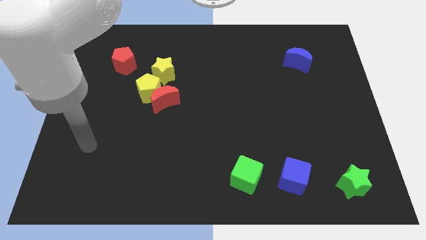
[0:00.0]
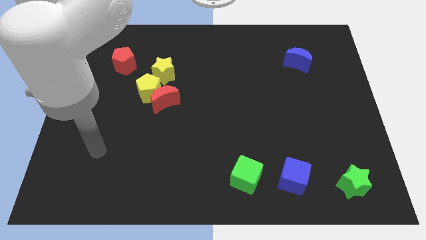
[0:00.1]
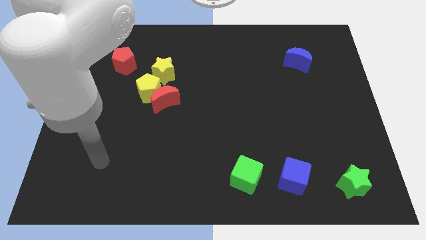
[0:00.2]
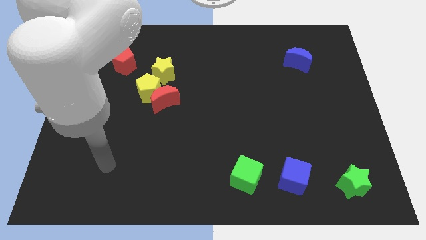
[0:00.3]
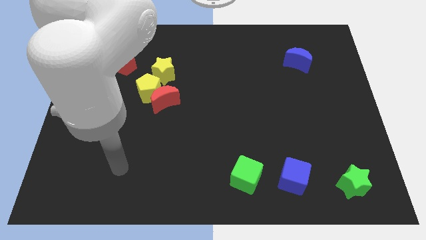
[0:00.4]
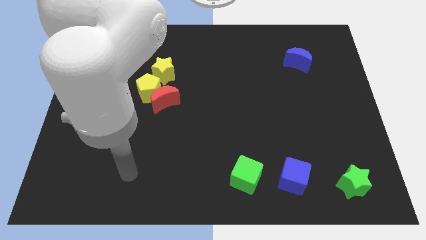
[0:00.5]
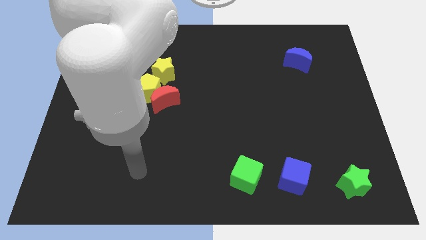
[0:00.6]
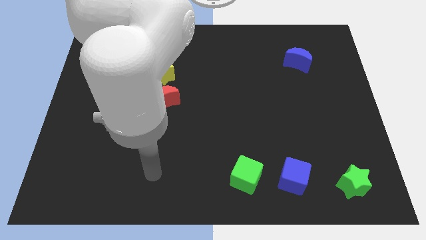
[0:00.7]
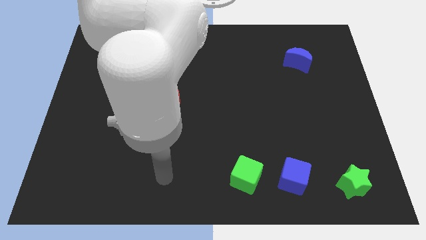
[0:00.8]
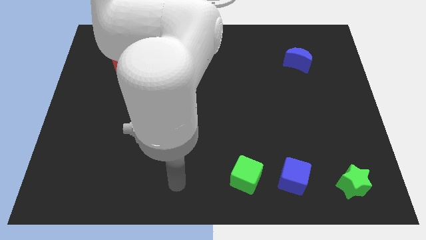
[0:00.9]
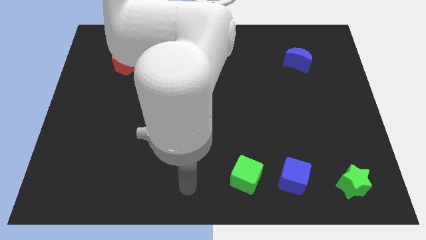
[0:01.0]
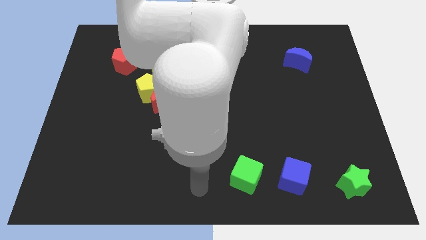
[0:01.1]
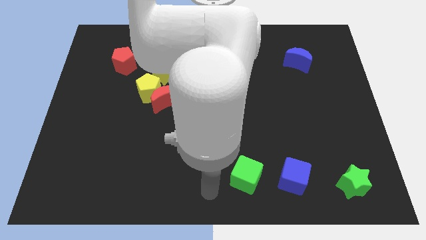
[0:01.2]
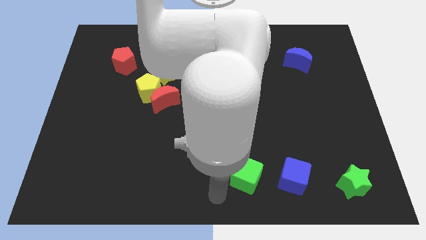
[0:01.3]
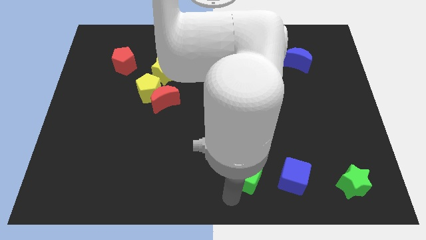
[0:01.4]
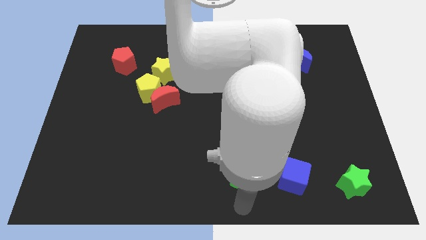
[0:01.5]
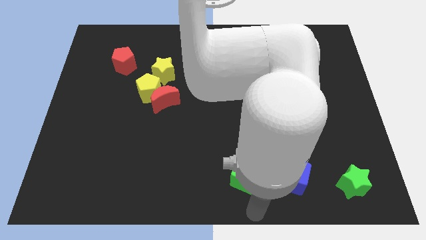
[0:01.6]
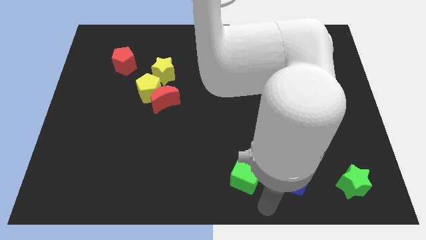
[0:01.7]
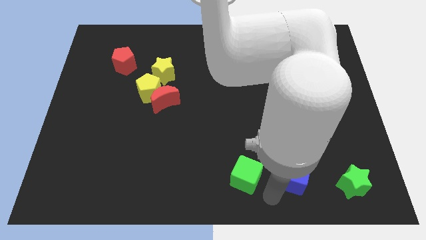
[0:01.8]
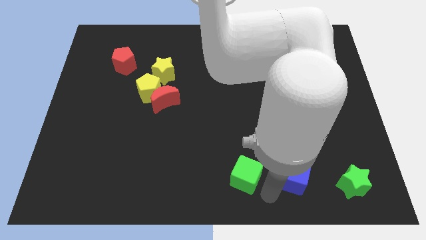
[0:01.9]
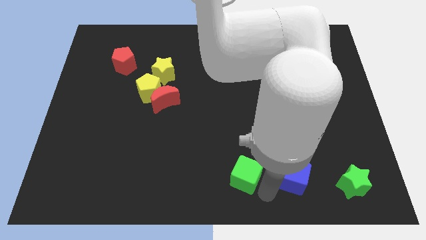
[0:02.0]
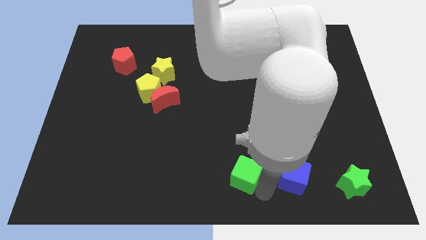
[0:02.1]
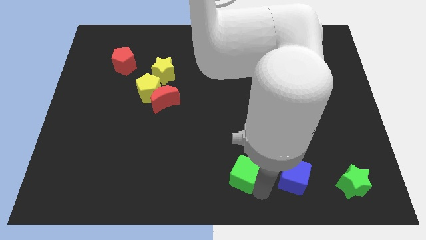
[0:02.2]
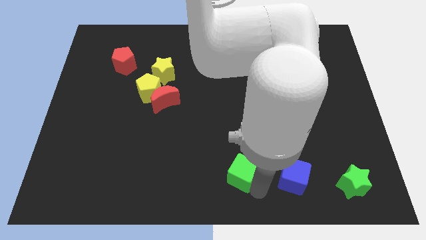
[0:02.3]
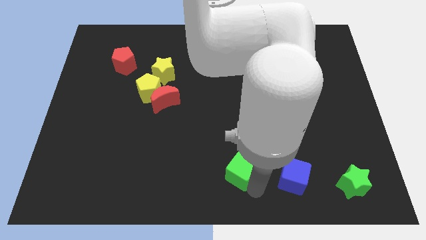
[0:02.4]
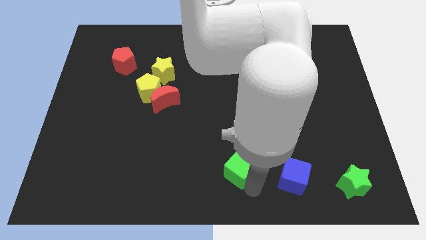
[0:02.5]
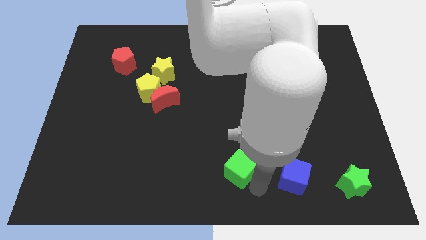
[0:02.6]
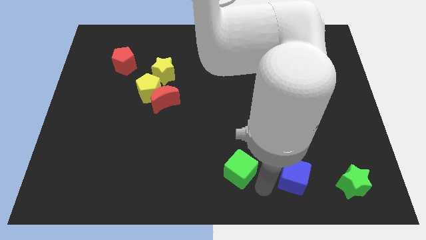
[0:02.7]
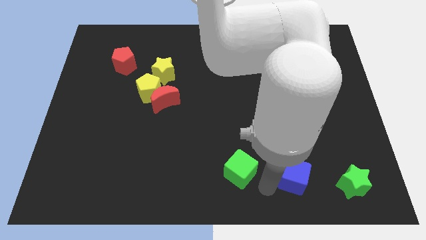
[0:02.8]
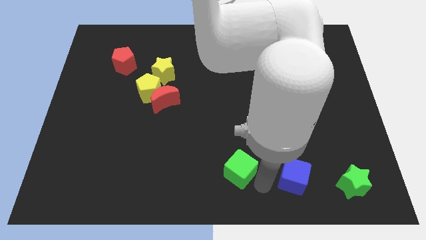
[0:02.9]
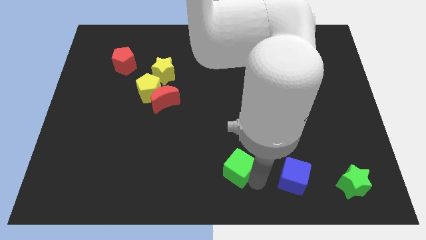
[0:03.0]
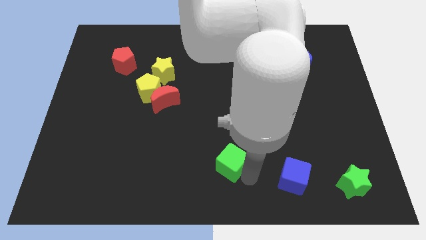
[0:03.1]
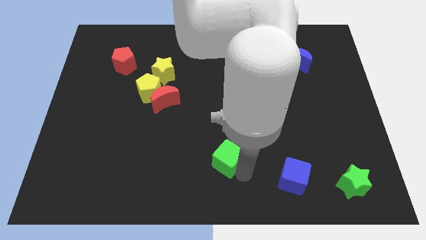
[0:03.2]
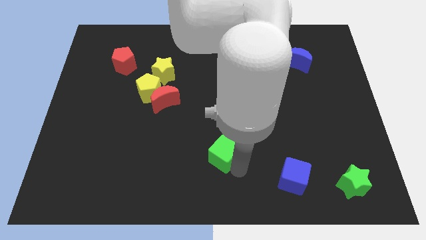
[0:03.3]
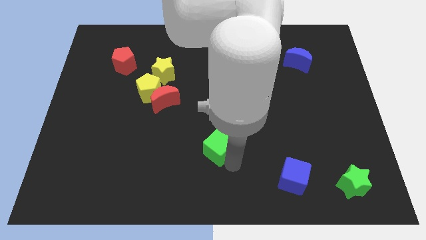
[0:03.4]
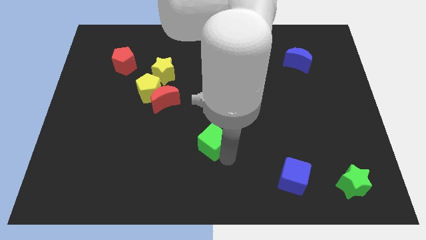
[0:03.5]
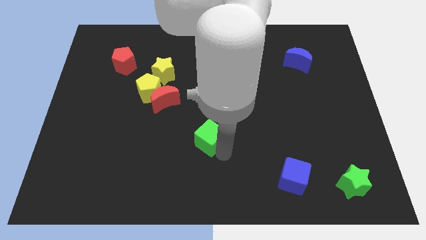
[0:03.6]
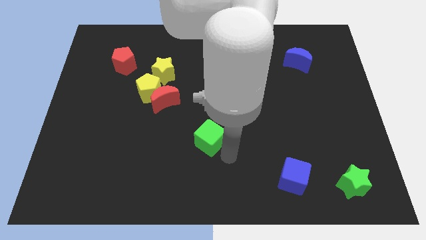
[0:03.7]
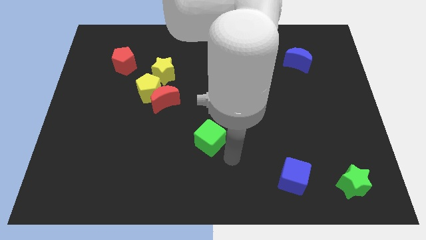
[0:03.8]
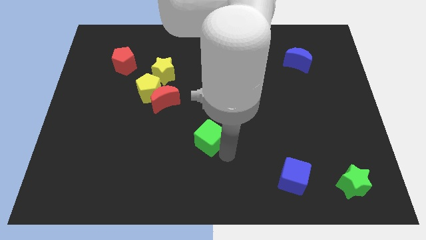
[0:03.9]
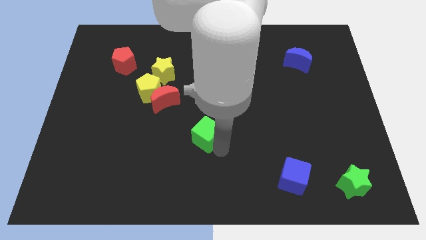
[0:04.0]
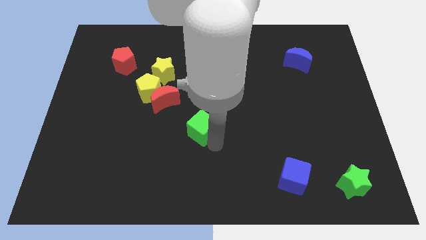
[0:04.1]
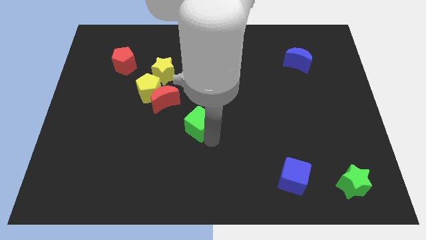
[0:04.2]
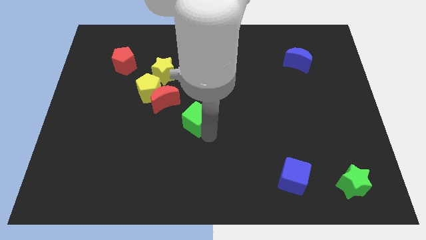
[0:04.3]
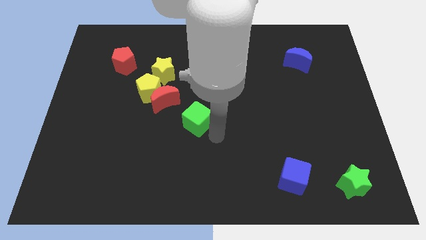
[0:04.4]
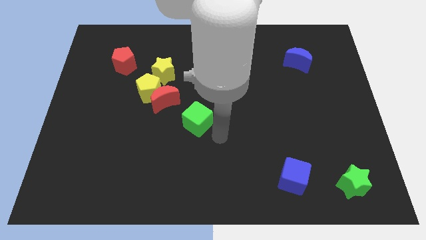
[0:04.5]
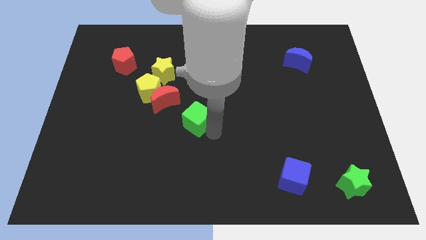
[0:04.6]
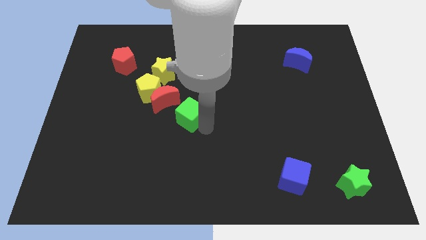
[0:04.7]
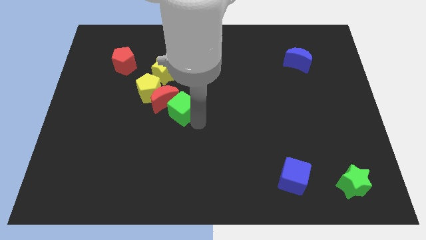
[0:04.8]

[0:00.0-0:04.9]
put the green cube close to the red moon

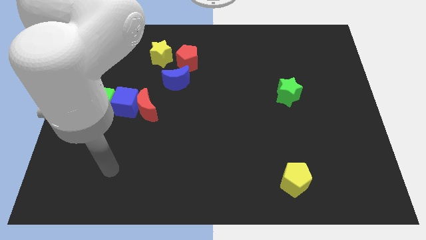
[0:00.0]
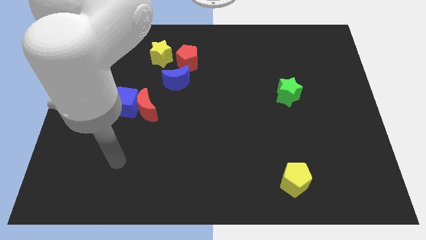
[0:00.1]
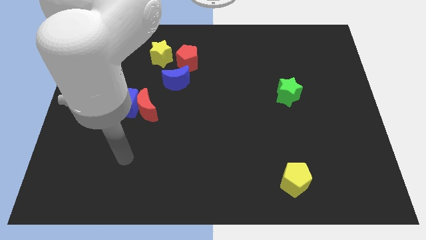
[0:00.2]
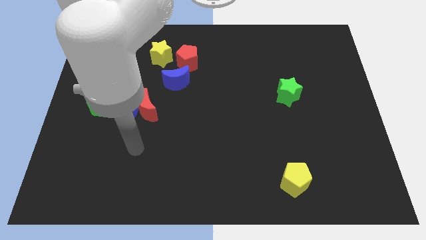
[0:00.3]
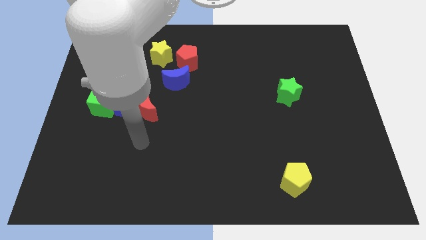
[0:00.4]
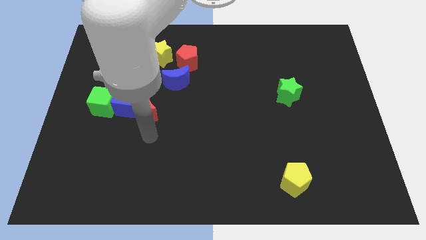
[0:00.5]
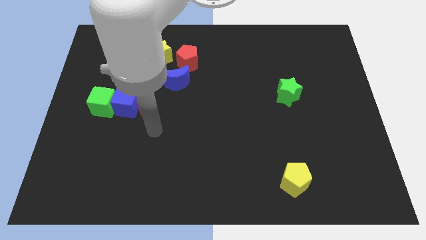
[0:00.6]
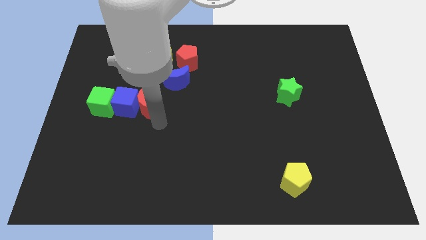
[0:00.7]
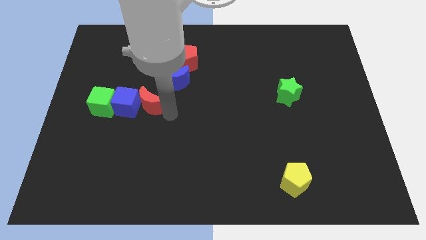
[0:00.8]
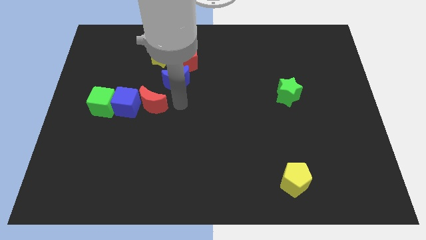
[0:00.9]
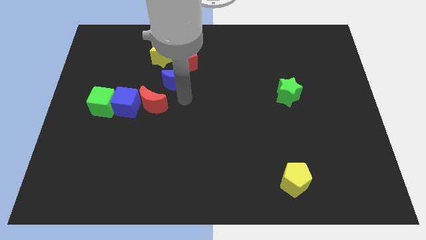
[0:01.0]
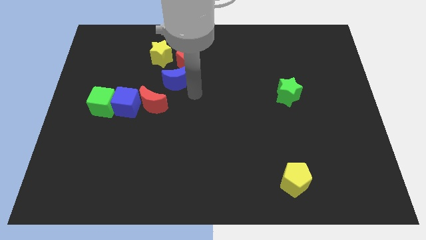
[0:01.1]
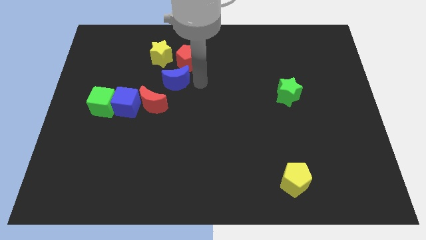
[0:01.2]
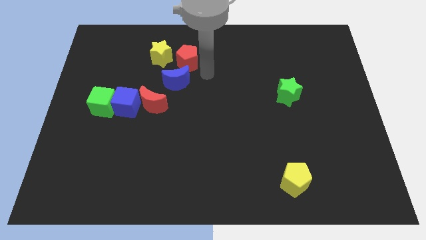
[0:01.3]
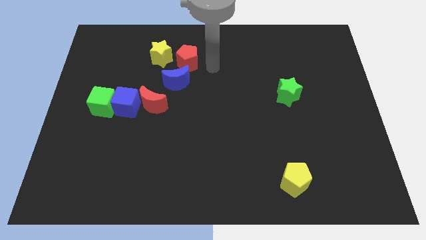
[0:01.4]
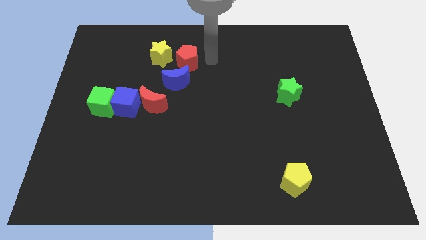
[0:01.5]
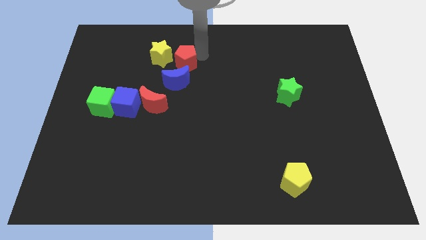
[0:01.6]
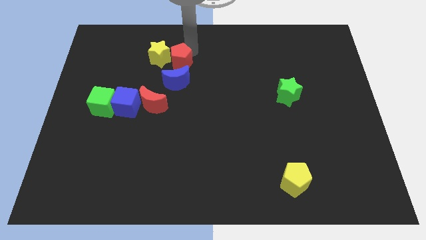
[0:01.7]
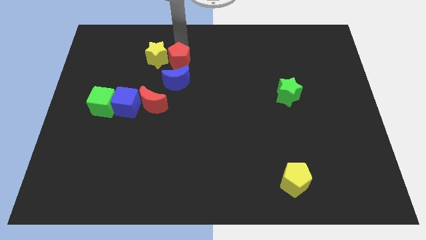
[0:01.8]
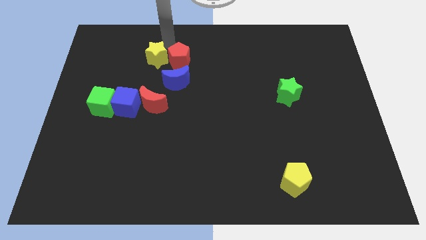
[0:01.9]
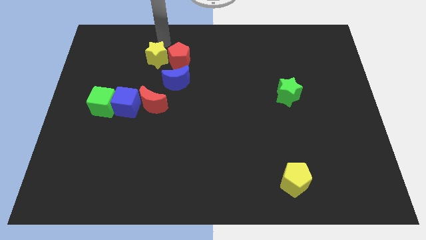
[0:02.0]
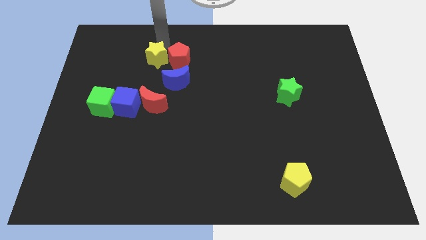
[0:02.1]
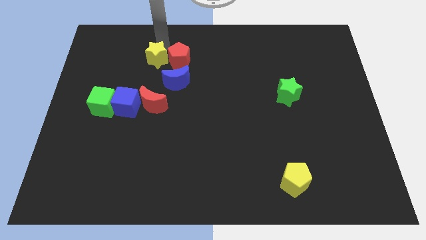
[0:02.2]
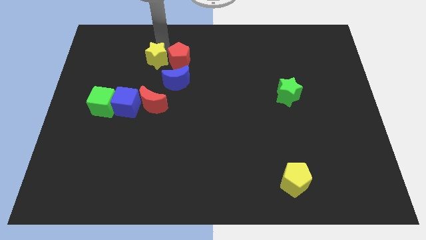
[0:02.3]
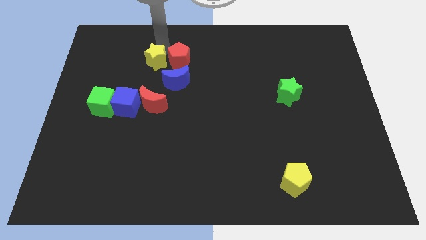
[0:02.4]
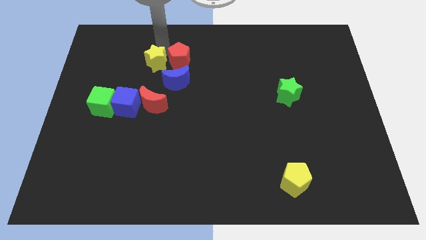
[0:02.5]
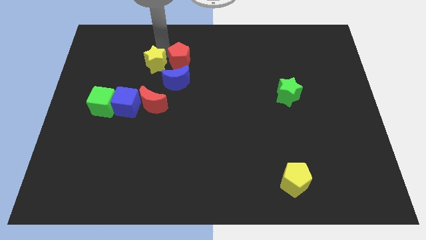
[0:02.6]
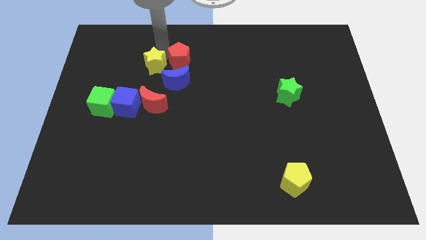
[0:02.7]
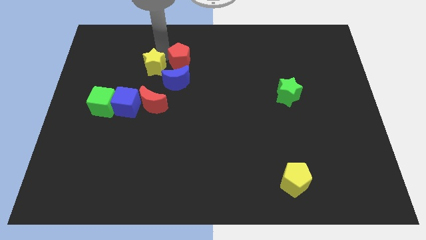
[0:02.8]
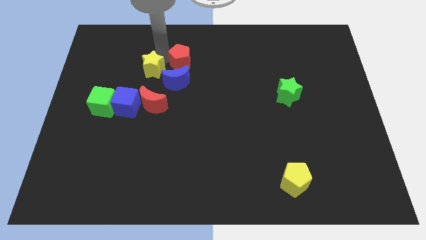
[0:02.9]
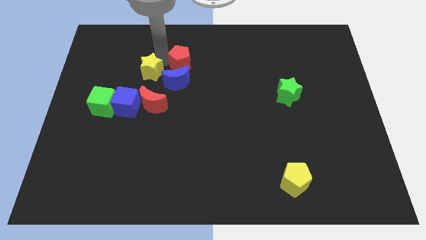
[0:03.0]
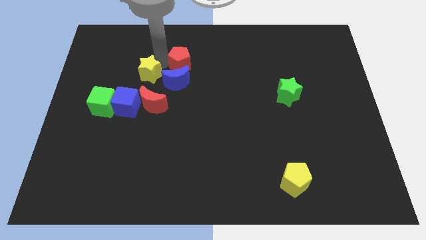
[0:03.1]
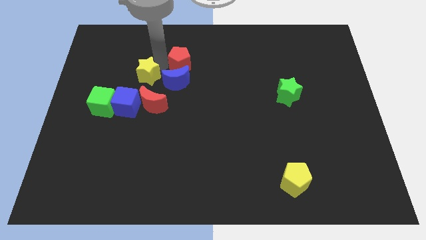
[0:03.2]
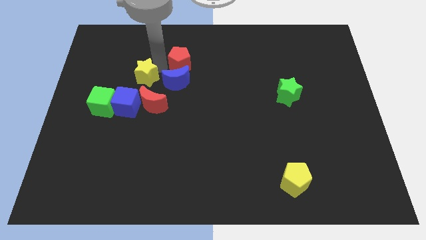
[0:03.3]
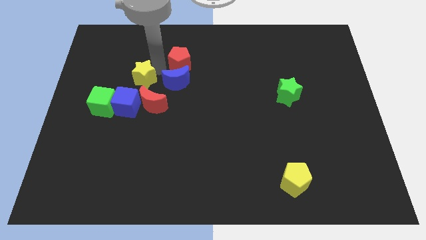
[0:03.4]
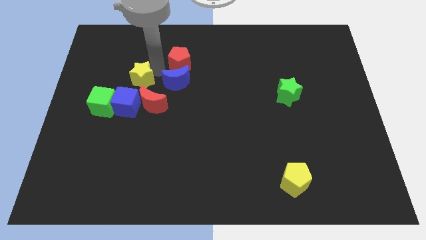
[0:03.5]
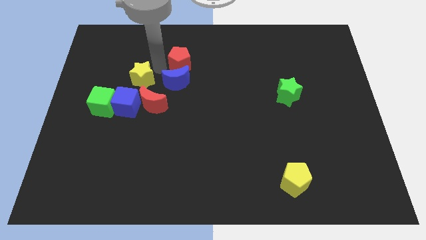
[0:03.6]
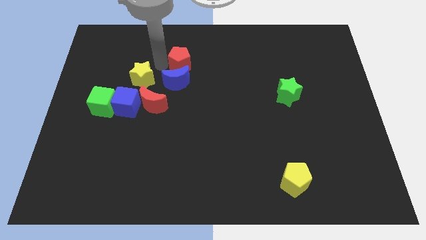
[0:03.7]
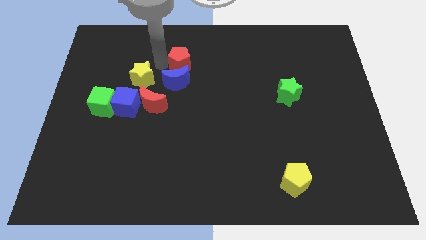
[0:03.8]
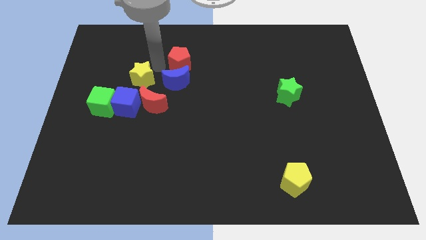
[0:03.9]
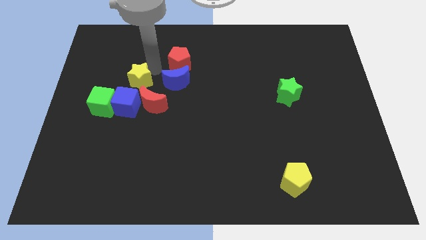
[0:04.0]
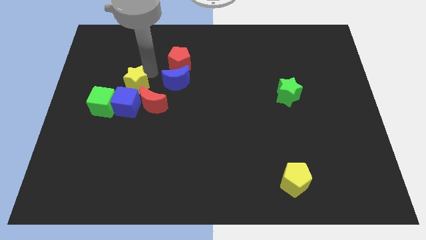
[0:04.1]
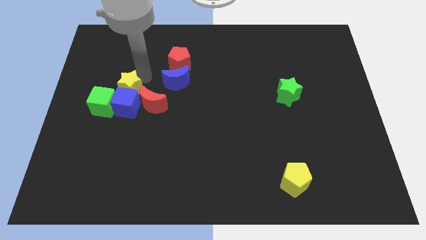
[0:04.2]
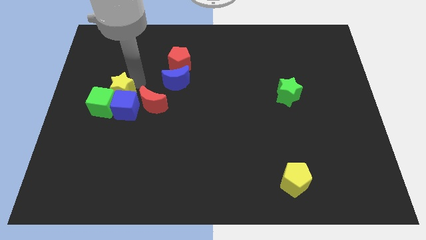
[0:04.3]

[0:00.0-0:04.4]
push the yellow star towards the green cube
